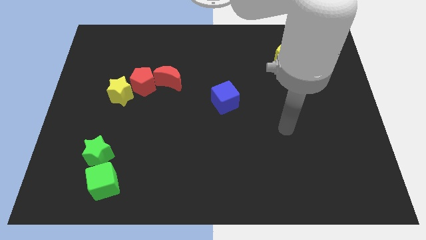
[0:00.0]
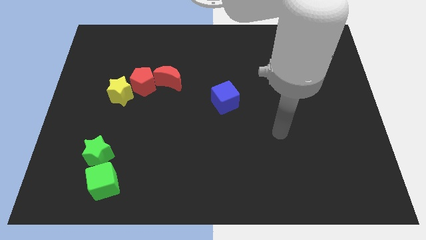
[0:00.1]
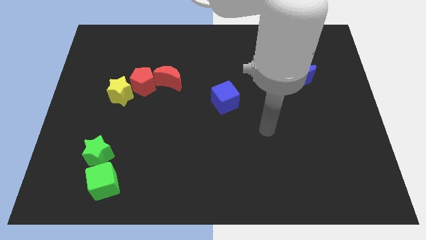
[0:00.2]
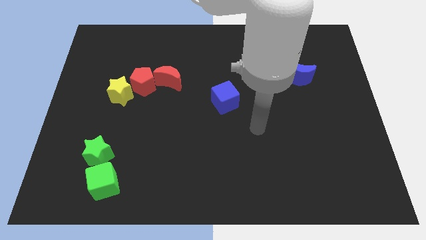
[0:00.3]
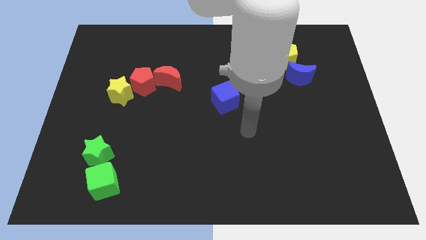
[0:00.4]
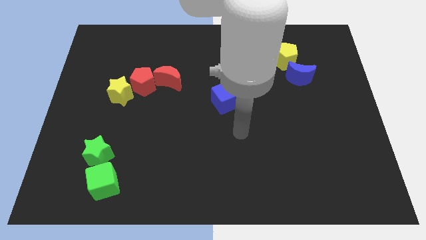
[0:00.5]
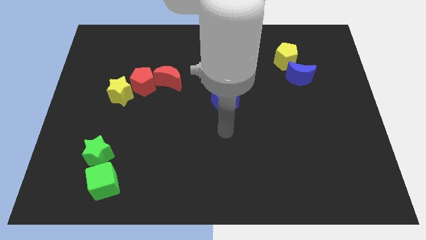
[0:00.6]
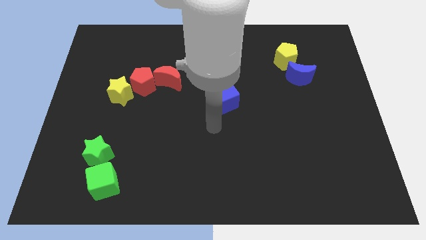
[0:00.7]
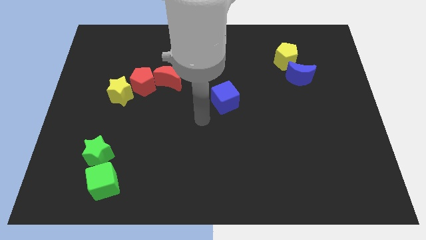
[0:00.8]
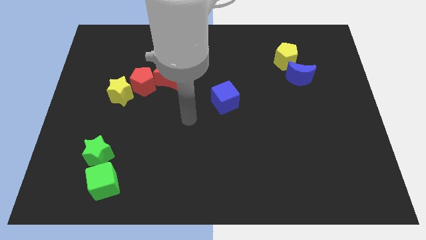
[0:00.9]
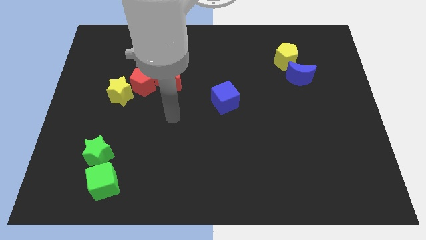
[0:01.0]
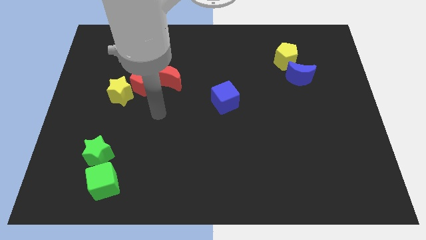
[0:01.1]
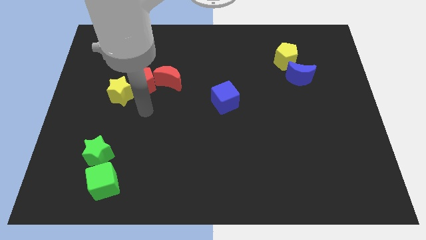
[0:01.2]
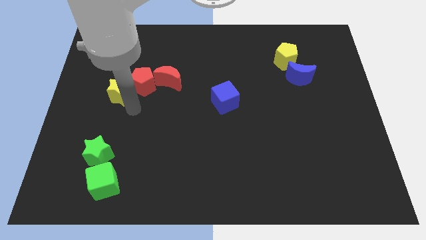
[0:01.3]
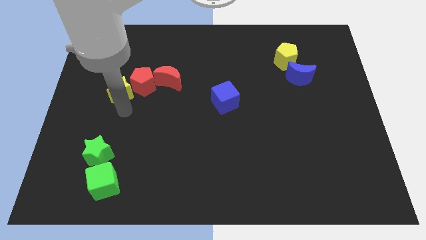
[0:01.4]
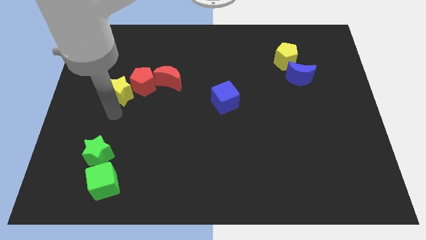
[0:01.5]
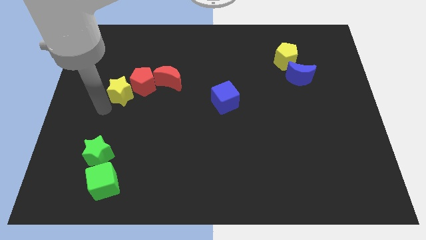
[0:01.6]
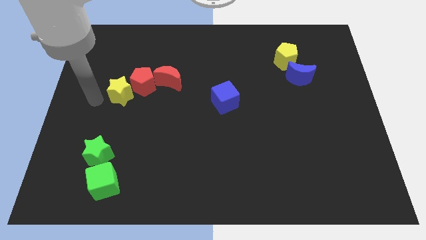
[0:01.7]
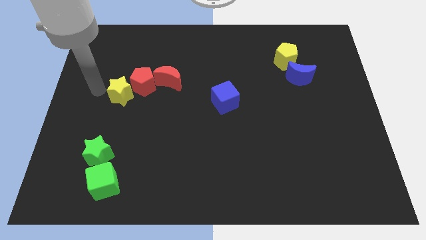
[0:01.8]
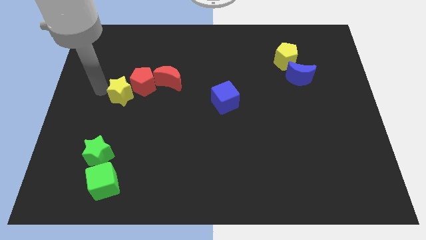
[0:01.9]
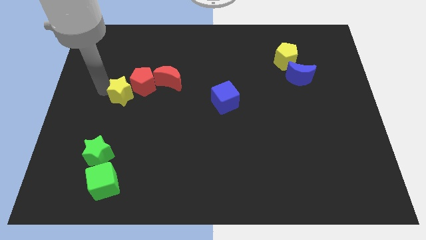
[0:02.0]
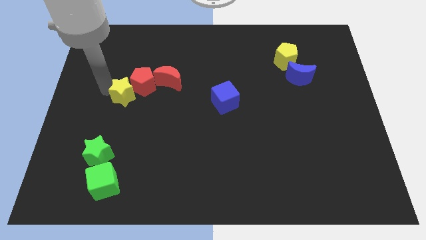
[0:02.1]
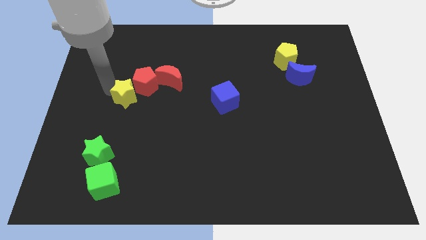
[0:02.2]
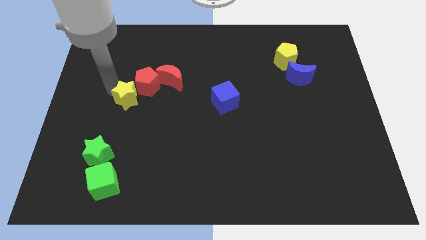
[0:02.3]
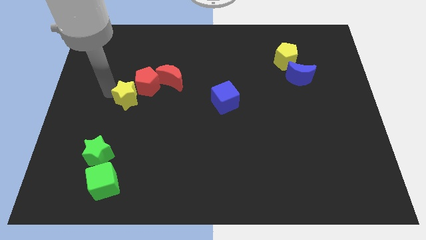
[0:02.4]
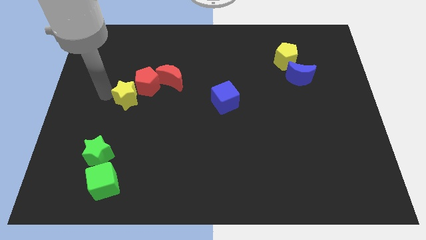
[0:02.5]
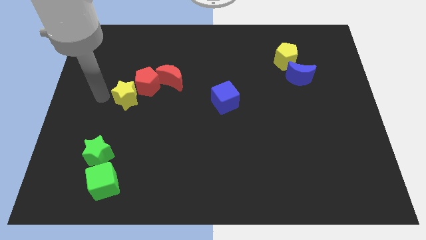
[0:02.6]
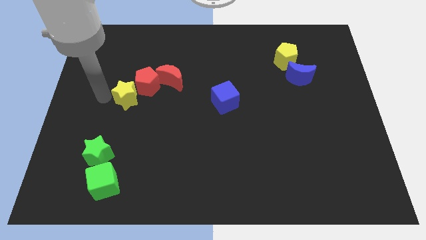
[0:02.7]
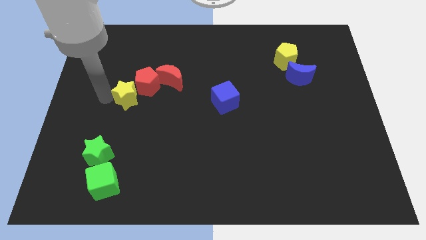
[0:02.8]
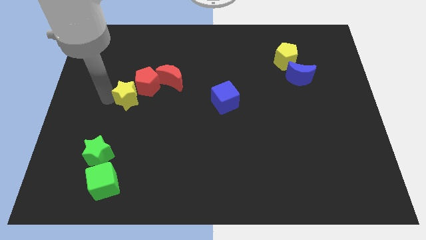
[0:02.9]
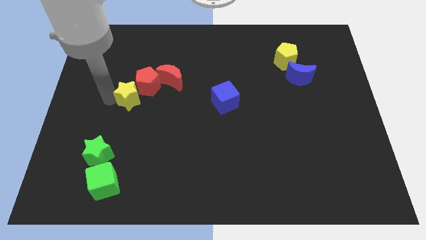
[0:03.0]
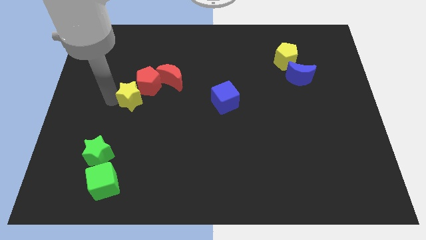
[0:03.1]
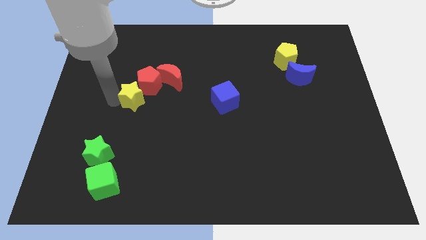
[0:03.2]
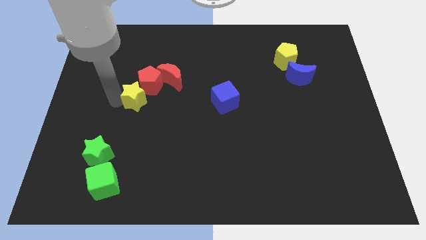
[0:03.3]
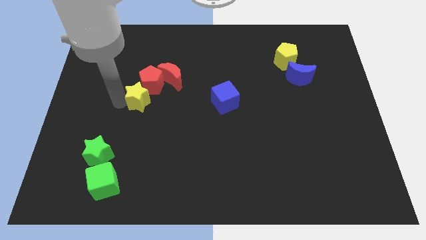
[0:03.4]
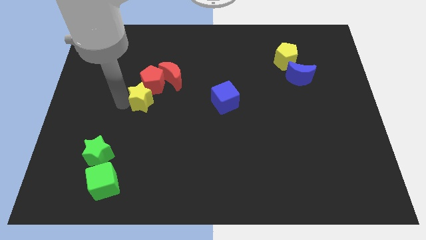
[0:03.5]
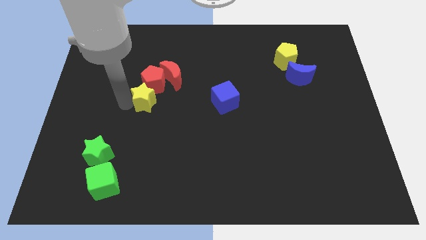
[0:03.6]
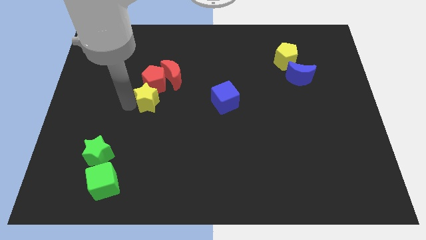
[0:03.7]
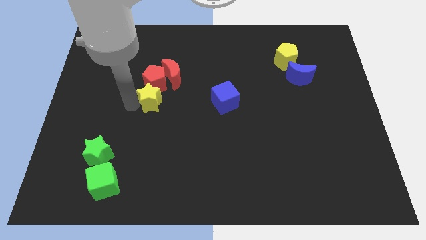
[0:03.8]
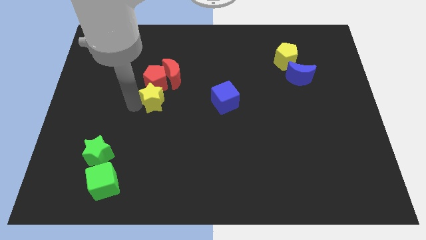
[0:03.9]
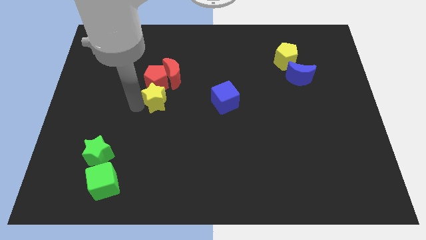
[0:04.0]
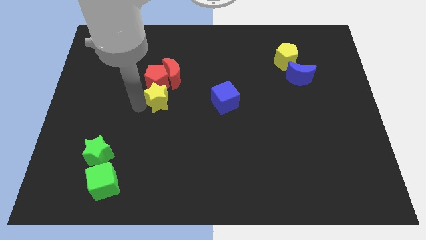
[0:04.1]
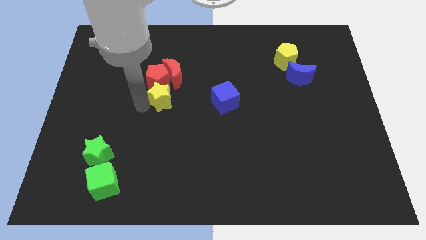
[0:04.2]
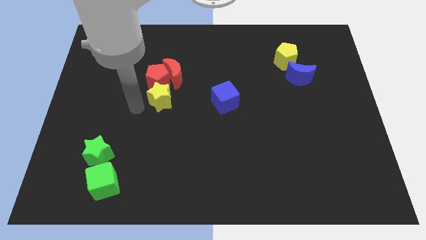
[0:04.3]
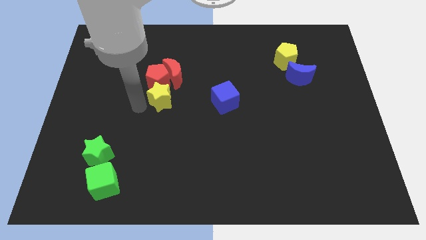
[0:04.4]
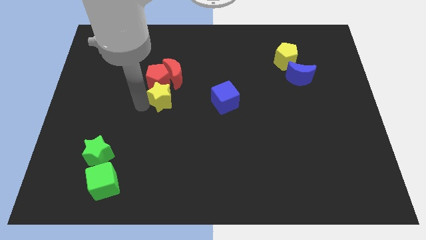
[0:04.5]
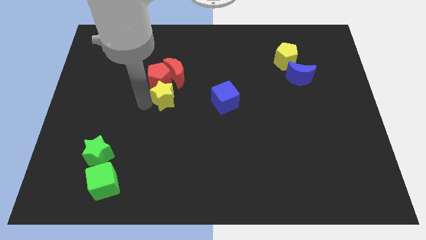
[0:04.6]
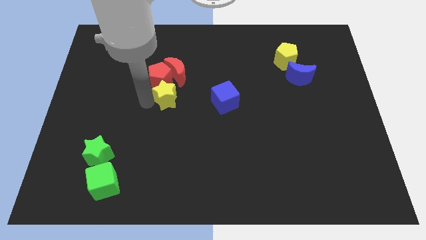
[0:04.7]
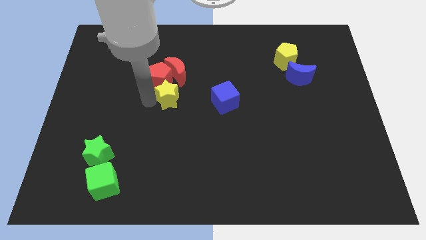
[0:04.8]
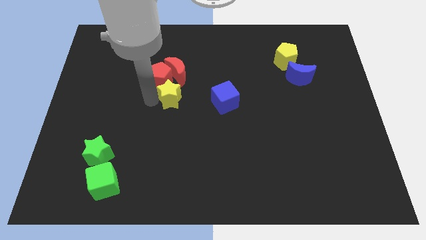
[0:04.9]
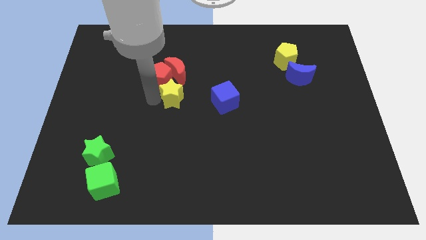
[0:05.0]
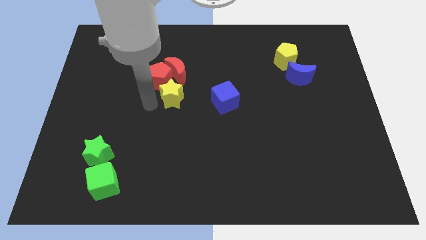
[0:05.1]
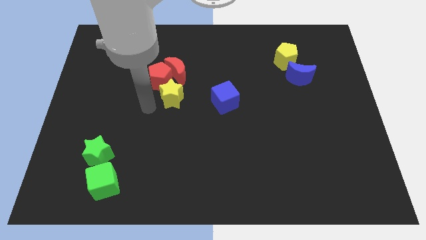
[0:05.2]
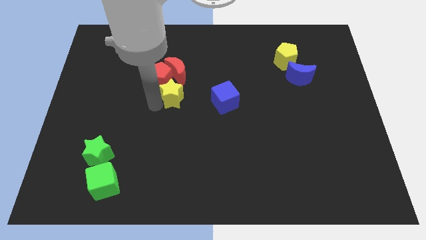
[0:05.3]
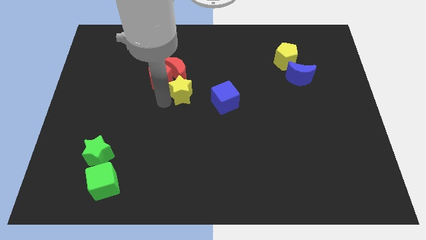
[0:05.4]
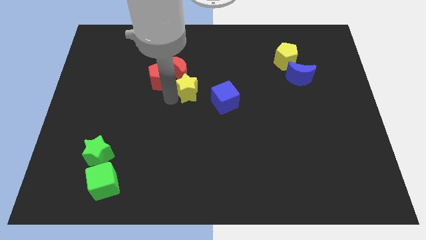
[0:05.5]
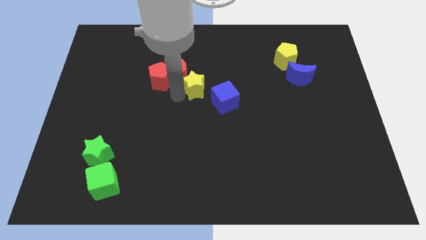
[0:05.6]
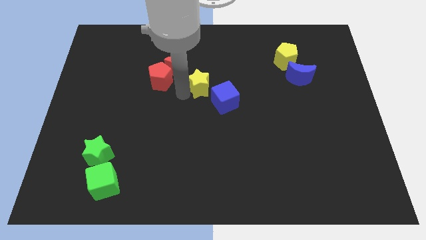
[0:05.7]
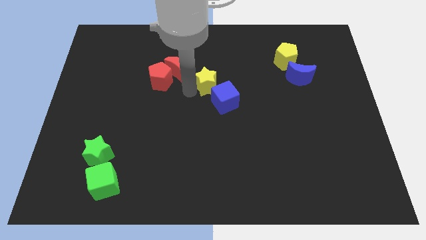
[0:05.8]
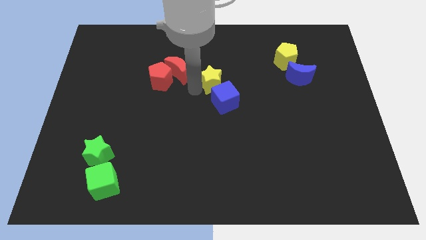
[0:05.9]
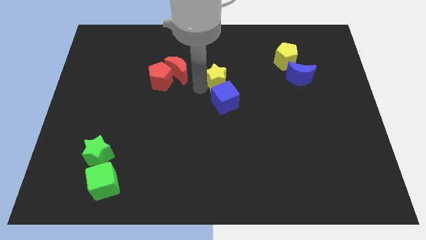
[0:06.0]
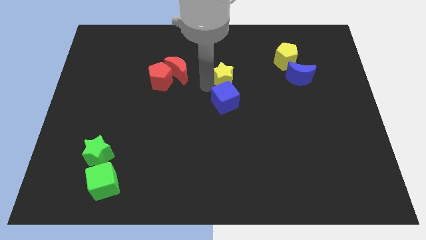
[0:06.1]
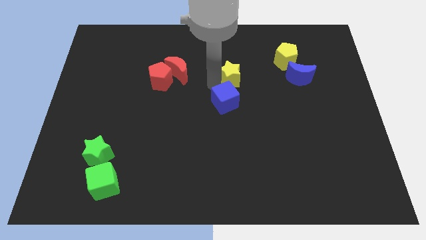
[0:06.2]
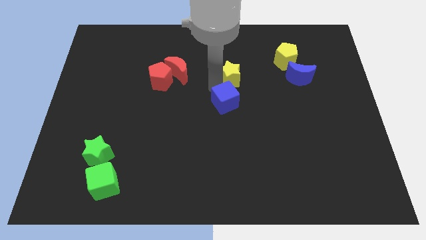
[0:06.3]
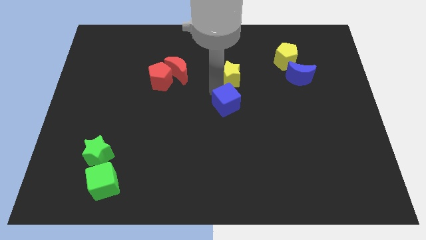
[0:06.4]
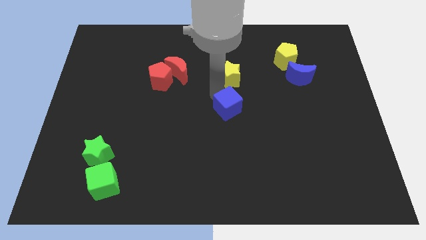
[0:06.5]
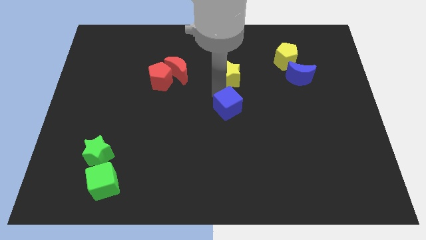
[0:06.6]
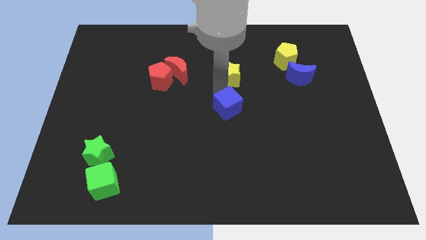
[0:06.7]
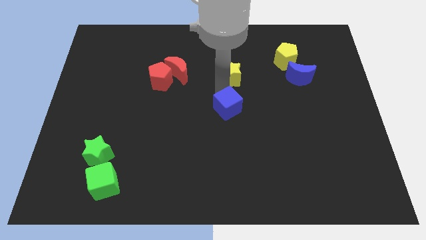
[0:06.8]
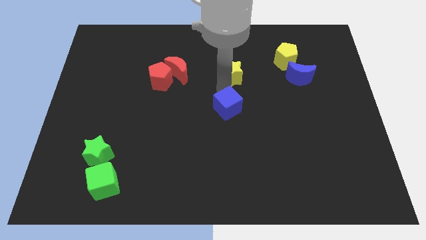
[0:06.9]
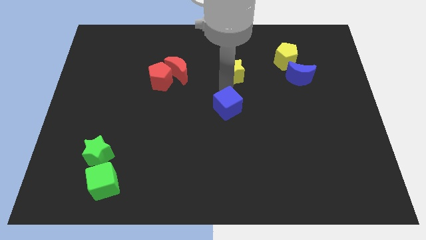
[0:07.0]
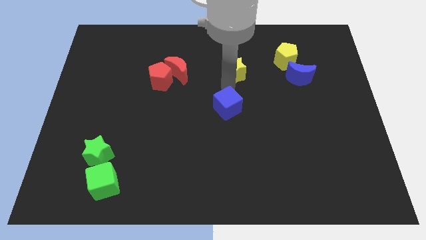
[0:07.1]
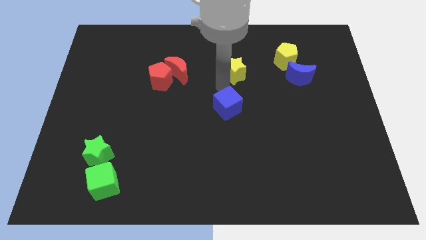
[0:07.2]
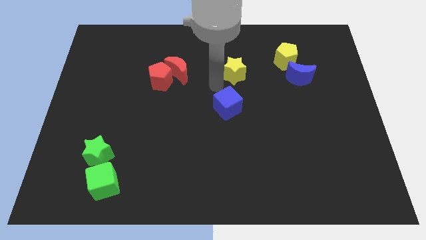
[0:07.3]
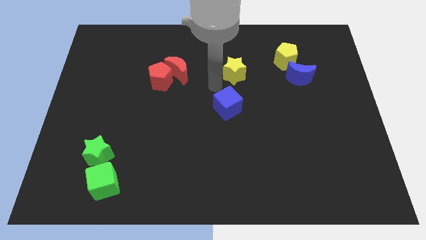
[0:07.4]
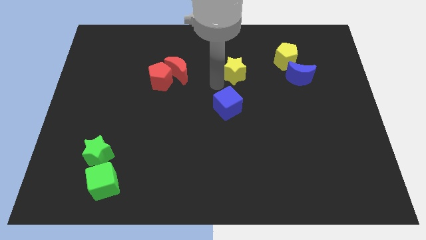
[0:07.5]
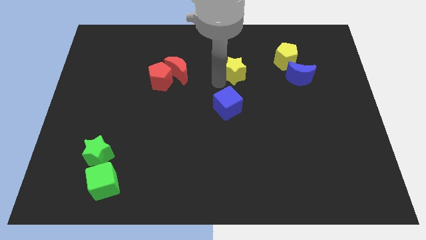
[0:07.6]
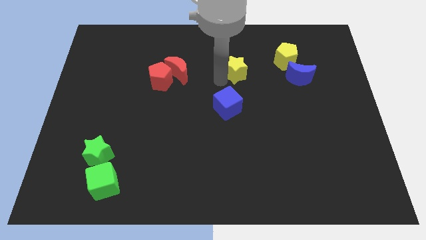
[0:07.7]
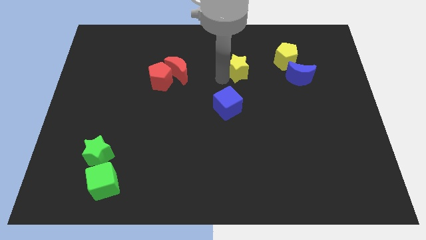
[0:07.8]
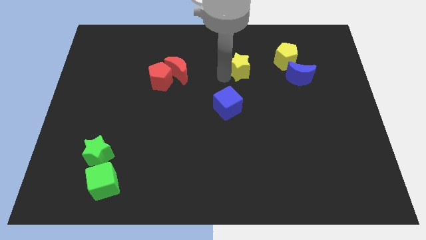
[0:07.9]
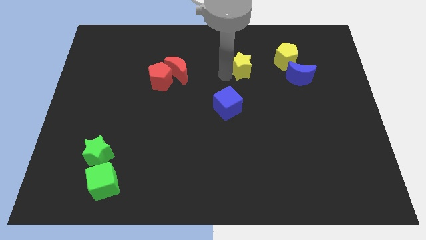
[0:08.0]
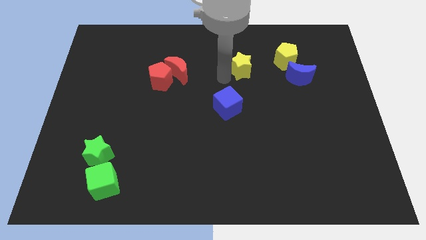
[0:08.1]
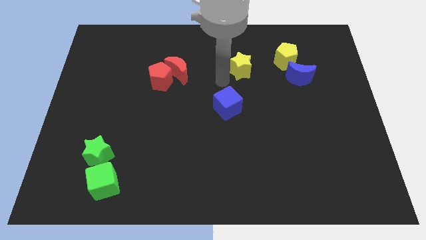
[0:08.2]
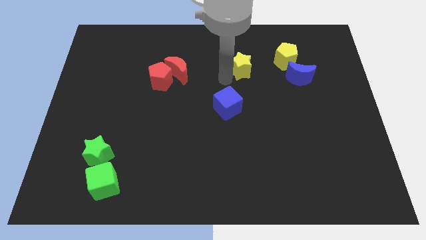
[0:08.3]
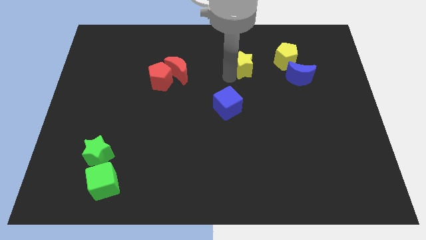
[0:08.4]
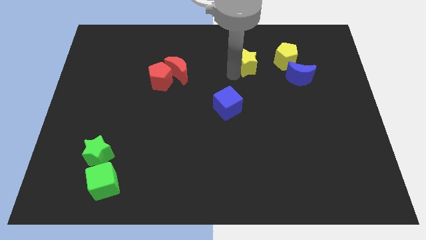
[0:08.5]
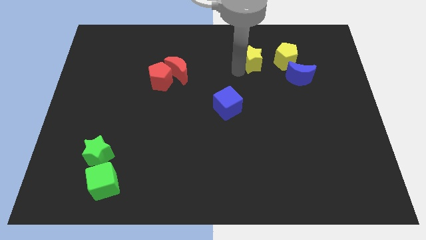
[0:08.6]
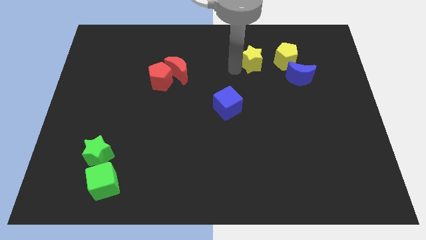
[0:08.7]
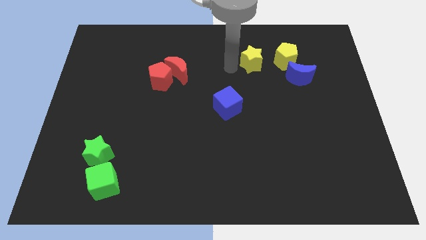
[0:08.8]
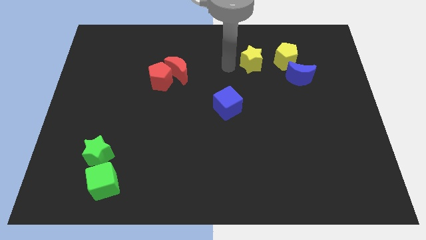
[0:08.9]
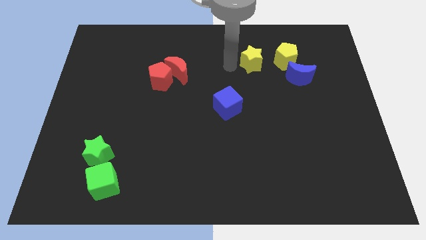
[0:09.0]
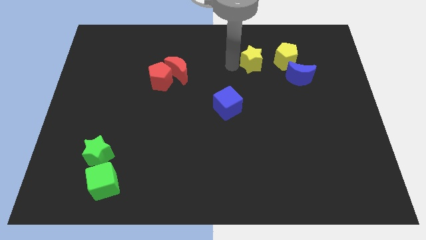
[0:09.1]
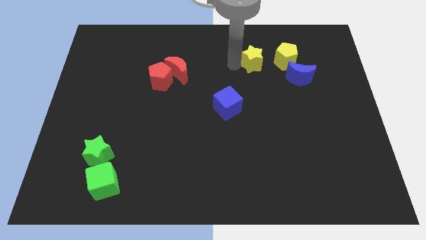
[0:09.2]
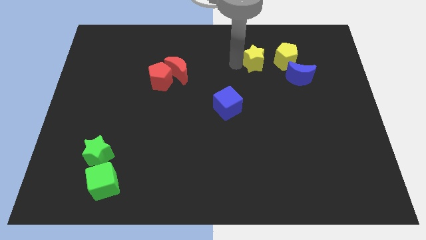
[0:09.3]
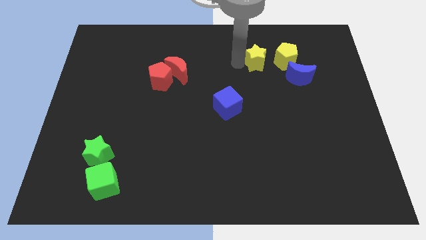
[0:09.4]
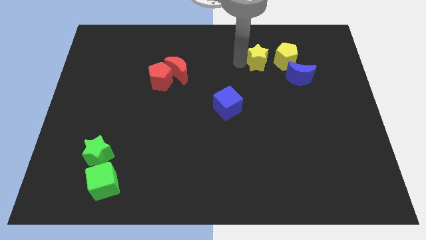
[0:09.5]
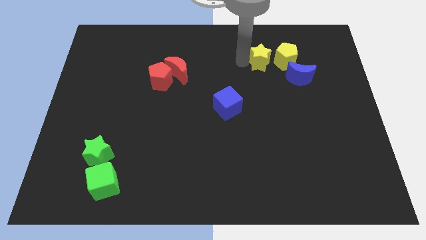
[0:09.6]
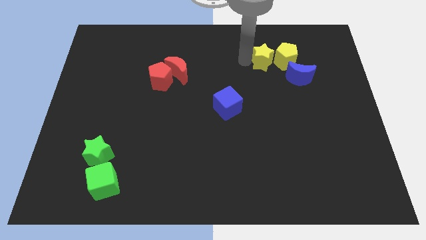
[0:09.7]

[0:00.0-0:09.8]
put the yellow star next to the yellow pentagon
